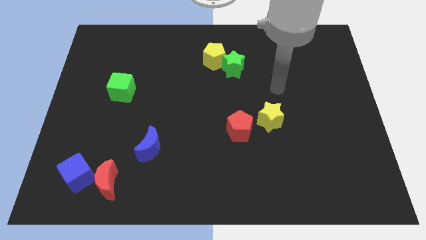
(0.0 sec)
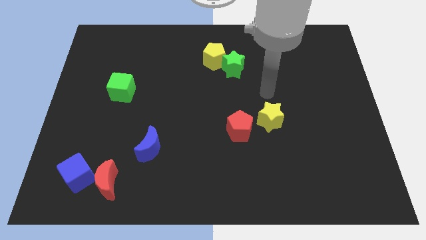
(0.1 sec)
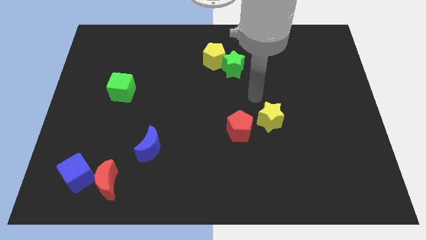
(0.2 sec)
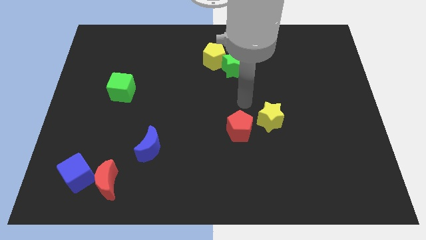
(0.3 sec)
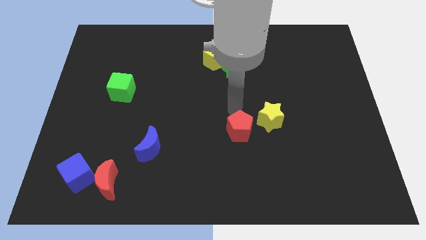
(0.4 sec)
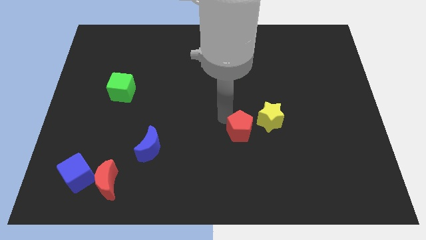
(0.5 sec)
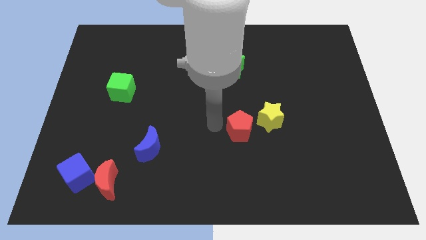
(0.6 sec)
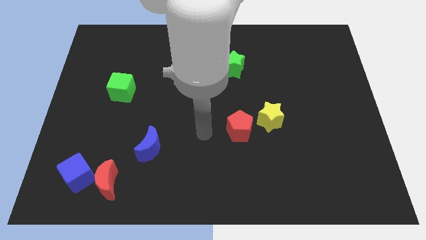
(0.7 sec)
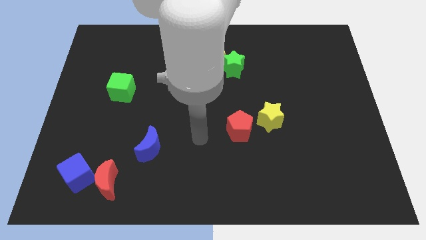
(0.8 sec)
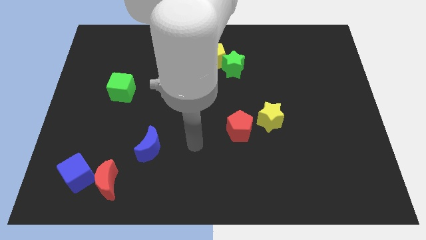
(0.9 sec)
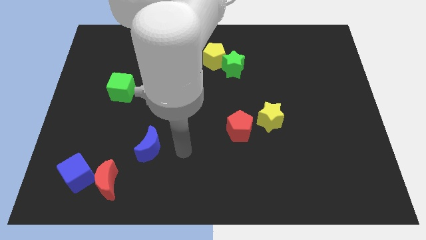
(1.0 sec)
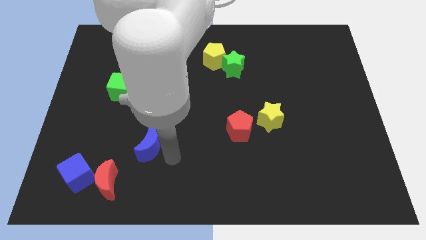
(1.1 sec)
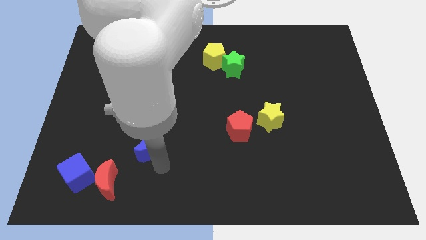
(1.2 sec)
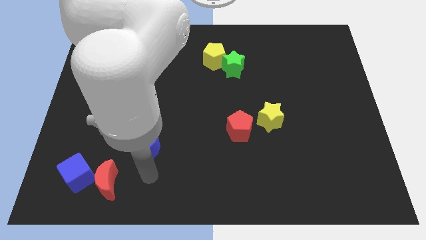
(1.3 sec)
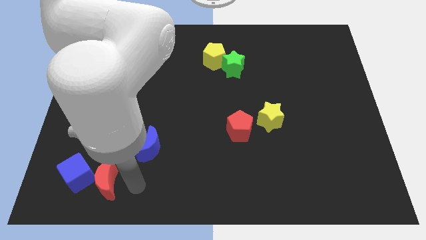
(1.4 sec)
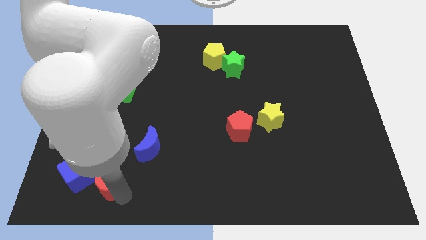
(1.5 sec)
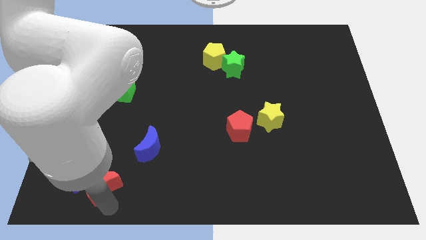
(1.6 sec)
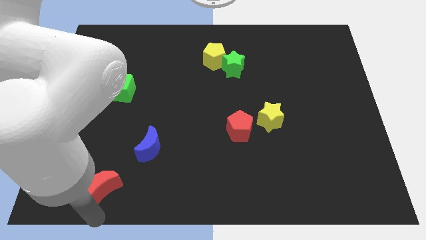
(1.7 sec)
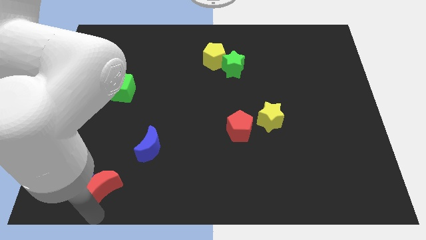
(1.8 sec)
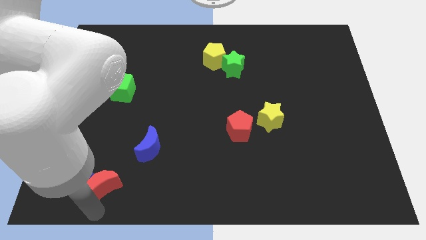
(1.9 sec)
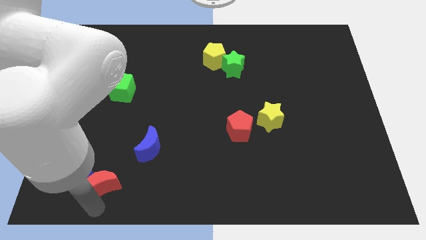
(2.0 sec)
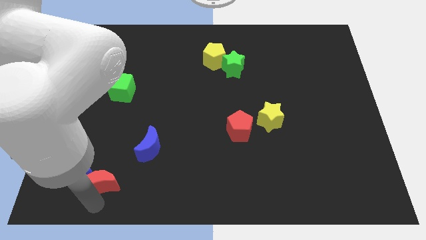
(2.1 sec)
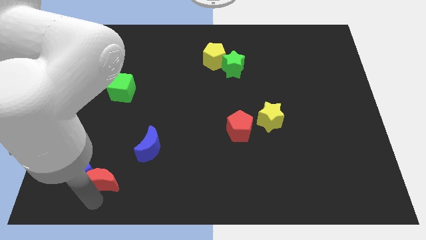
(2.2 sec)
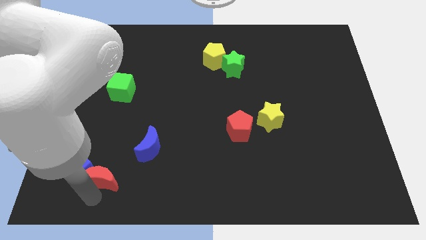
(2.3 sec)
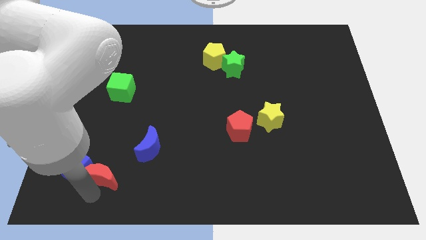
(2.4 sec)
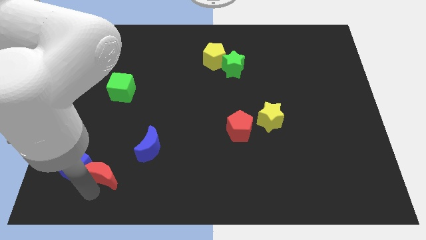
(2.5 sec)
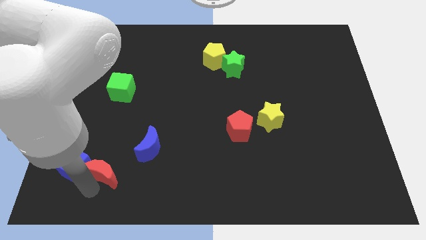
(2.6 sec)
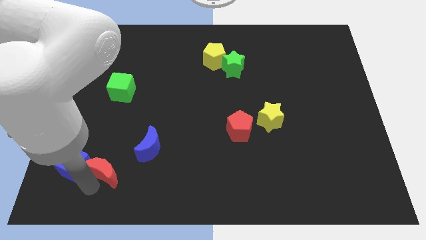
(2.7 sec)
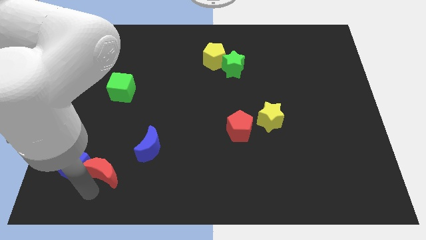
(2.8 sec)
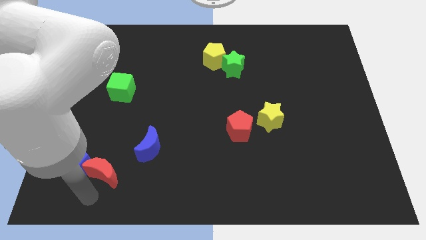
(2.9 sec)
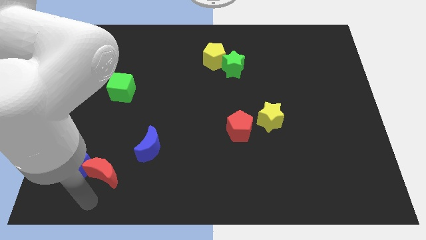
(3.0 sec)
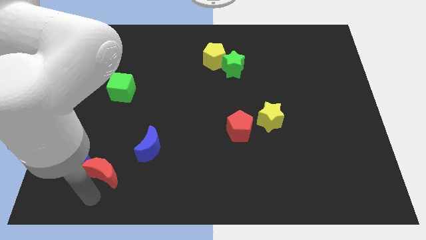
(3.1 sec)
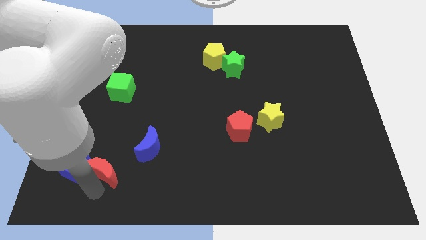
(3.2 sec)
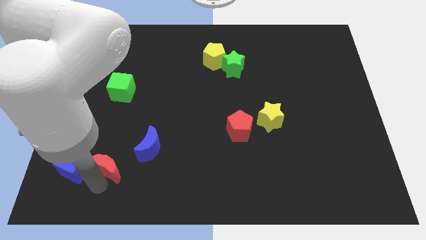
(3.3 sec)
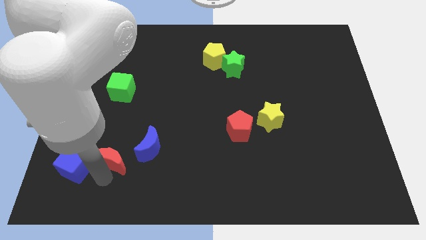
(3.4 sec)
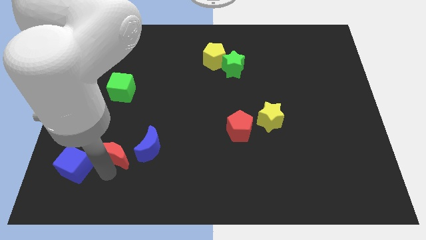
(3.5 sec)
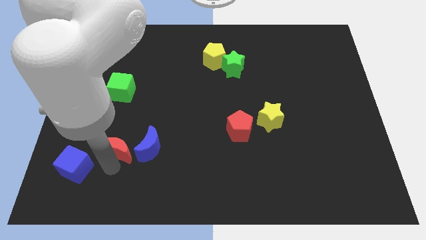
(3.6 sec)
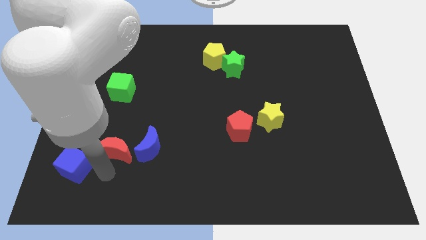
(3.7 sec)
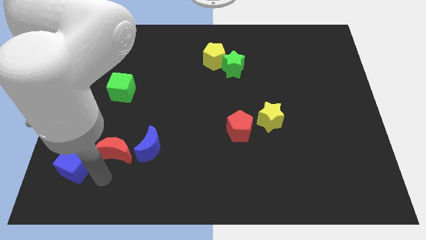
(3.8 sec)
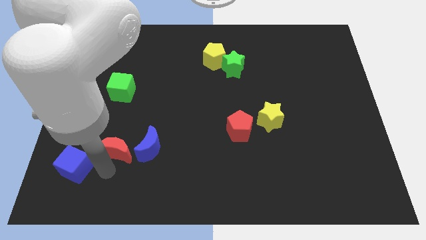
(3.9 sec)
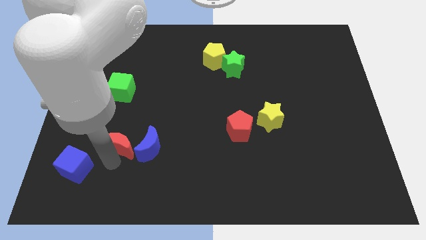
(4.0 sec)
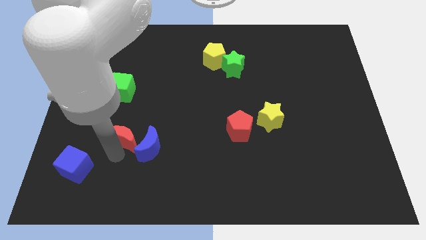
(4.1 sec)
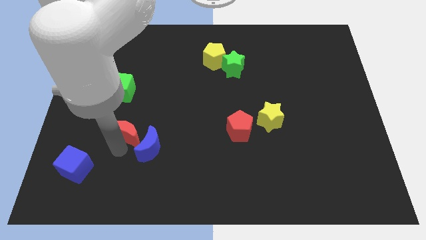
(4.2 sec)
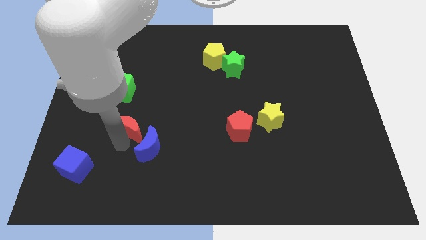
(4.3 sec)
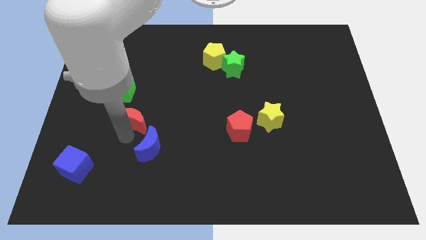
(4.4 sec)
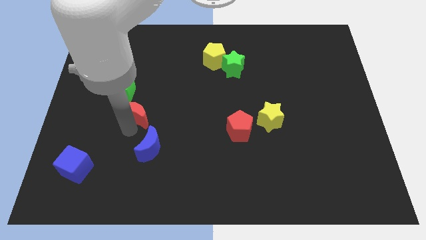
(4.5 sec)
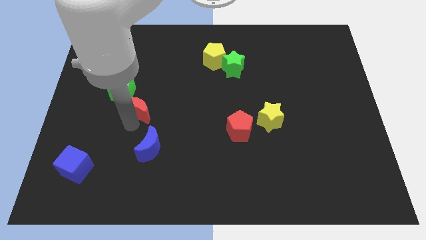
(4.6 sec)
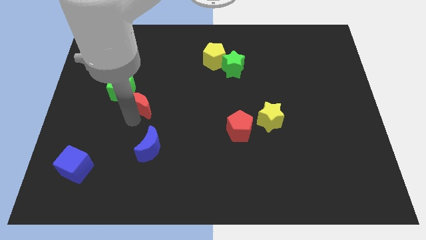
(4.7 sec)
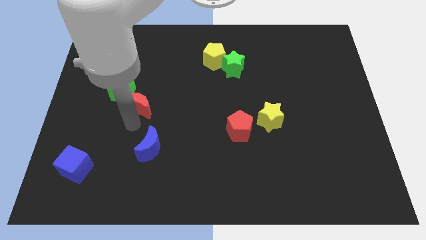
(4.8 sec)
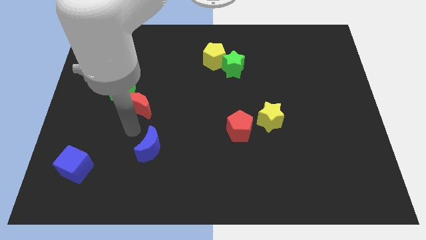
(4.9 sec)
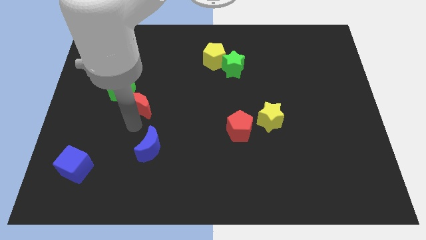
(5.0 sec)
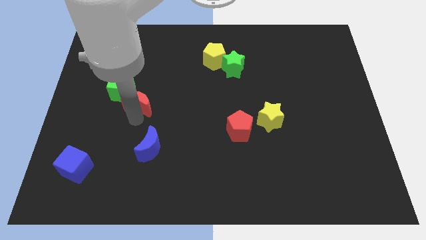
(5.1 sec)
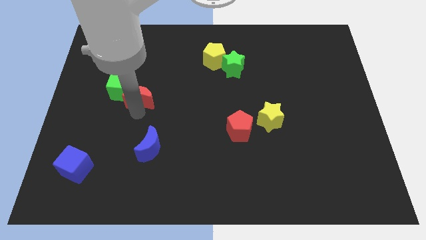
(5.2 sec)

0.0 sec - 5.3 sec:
slide the red moon up

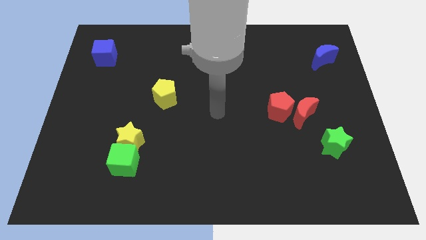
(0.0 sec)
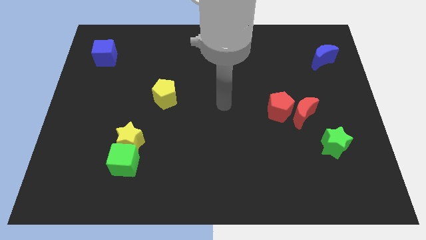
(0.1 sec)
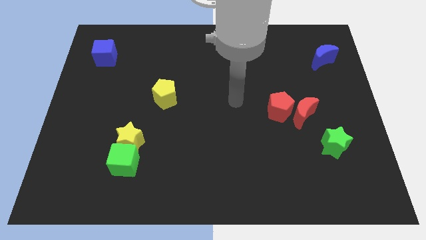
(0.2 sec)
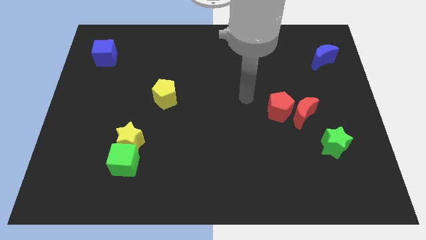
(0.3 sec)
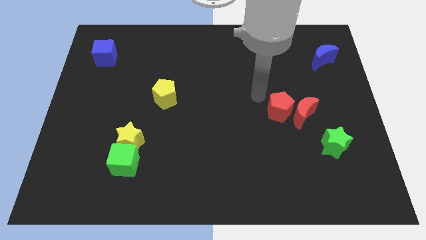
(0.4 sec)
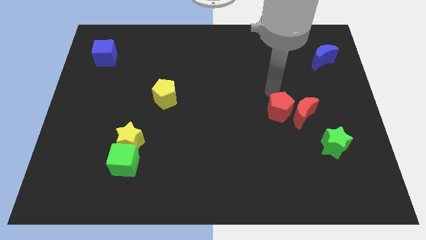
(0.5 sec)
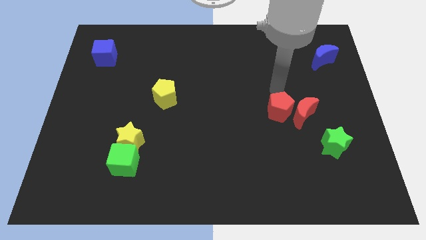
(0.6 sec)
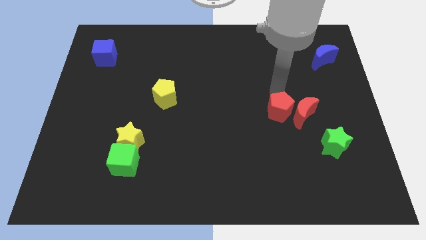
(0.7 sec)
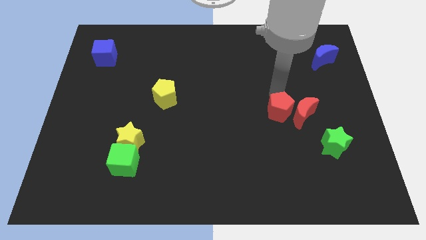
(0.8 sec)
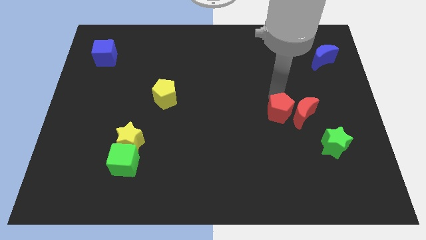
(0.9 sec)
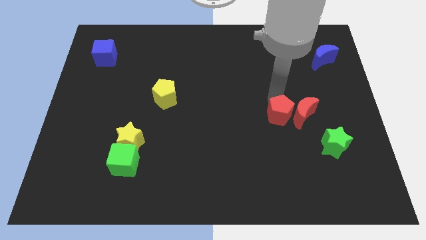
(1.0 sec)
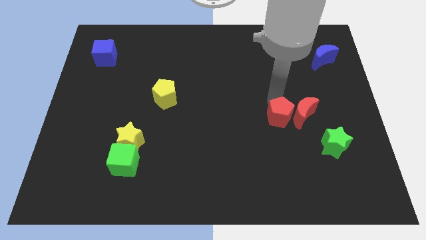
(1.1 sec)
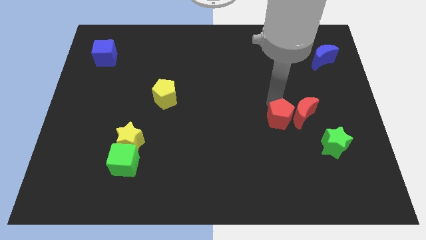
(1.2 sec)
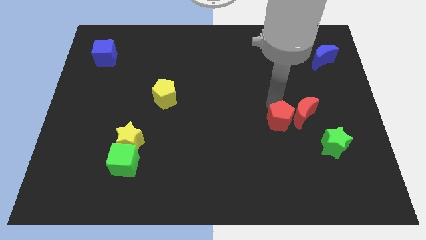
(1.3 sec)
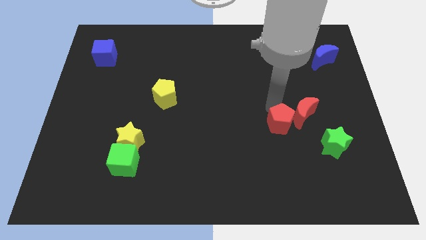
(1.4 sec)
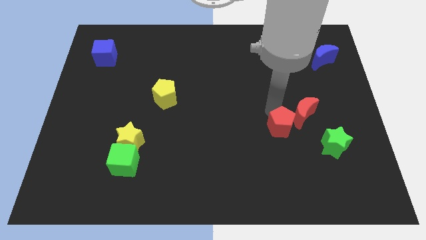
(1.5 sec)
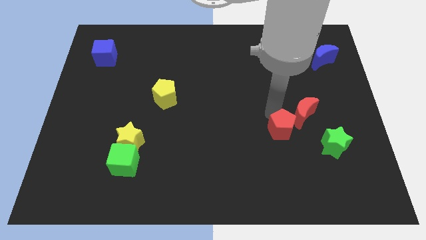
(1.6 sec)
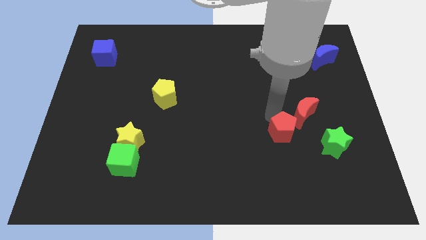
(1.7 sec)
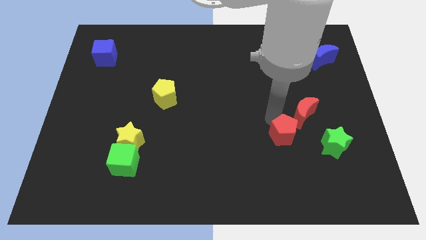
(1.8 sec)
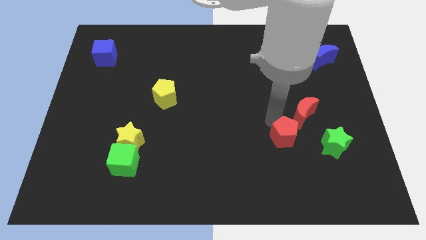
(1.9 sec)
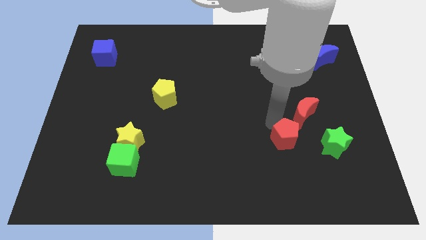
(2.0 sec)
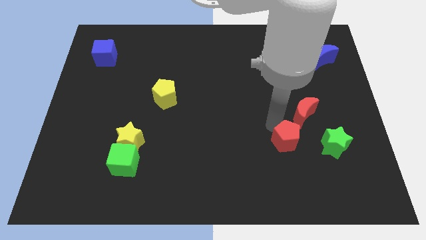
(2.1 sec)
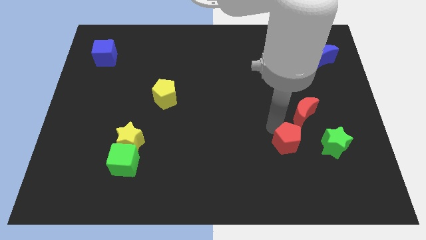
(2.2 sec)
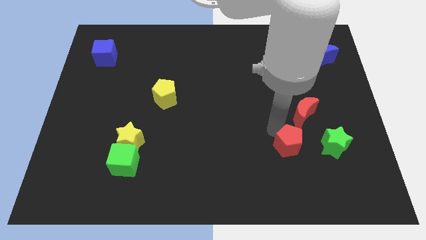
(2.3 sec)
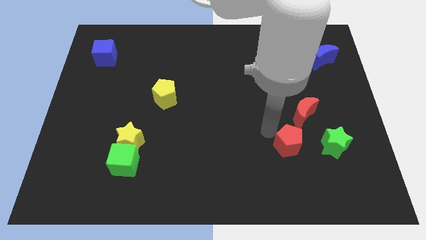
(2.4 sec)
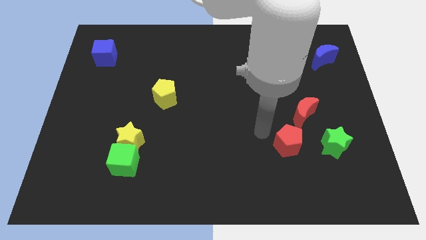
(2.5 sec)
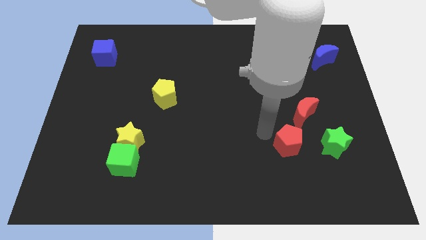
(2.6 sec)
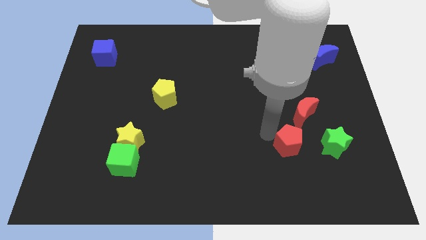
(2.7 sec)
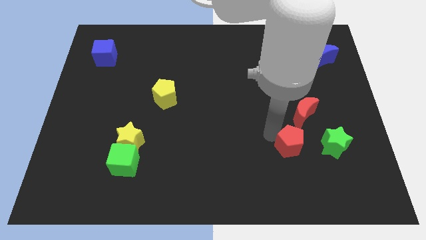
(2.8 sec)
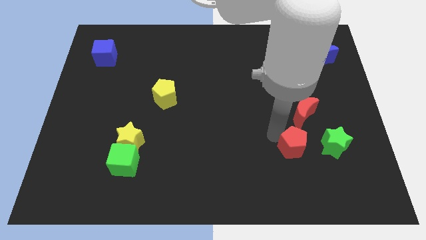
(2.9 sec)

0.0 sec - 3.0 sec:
slightly slide the red pentagon down and to the right
